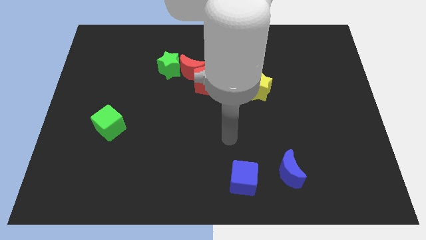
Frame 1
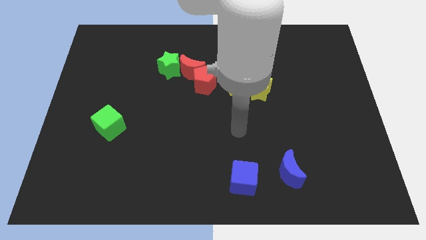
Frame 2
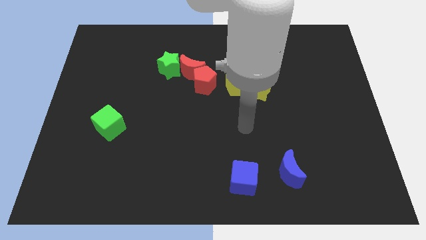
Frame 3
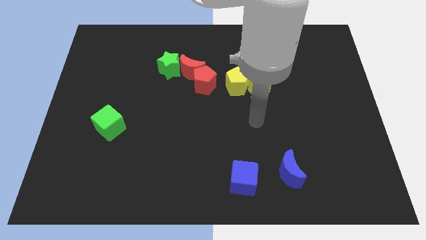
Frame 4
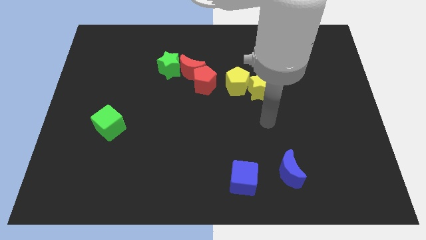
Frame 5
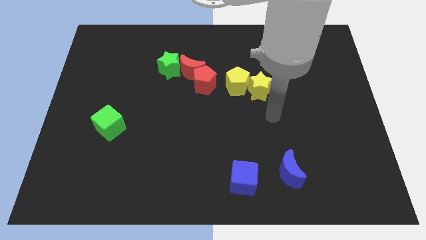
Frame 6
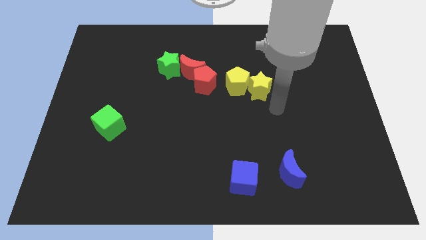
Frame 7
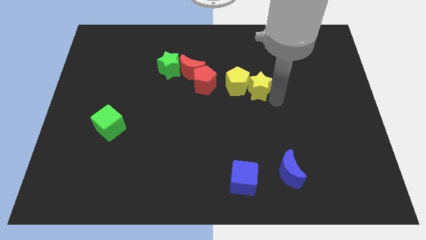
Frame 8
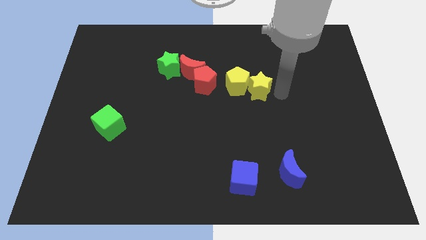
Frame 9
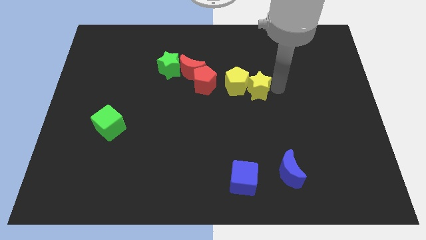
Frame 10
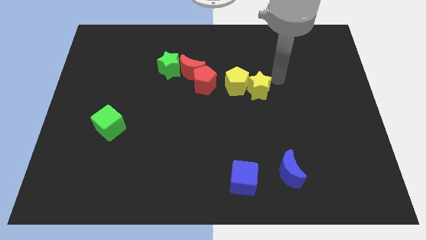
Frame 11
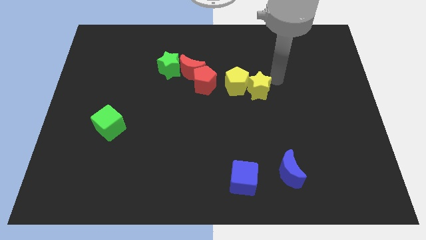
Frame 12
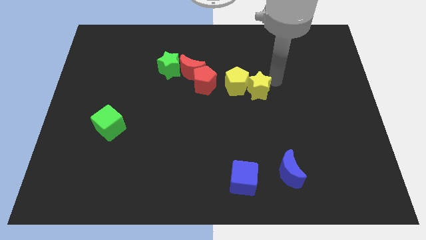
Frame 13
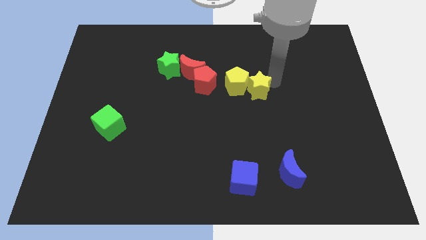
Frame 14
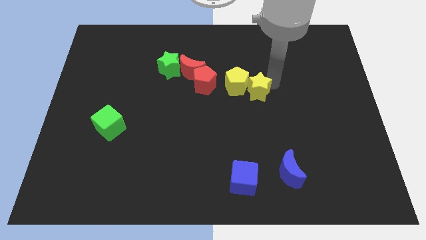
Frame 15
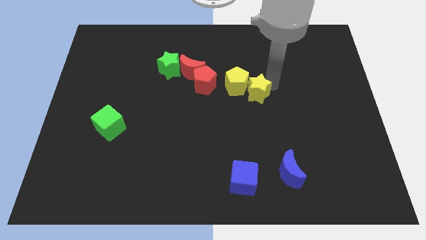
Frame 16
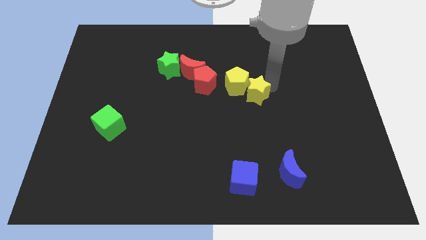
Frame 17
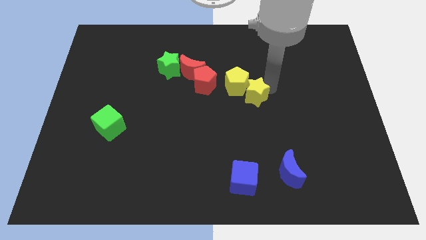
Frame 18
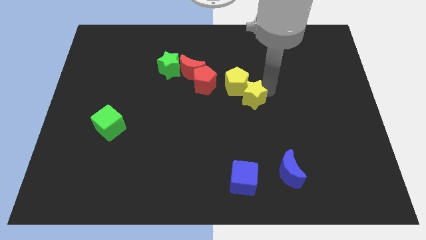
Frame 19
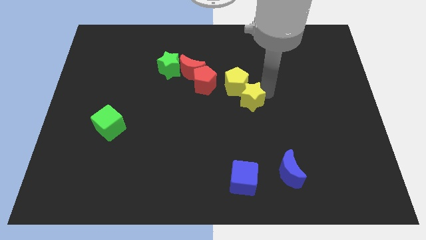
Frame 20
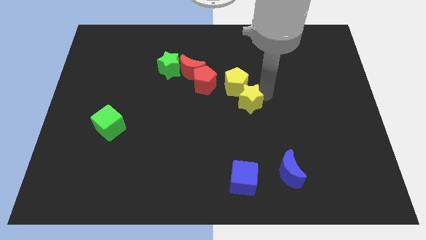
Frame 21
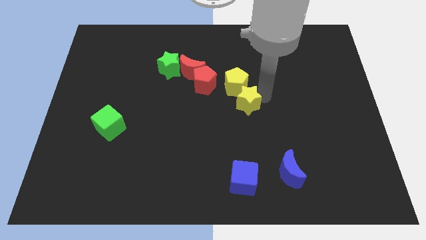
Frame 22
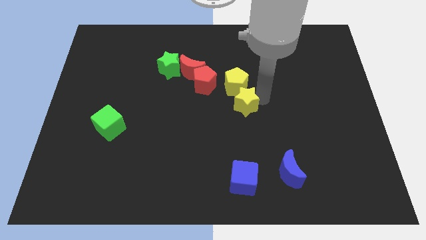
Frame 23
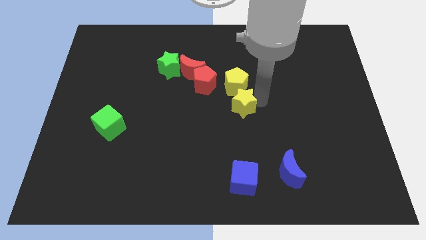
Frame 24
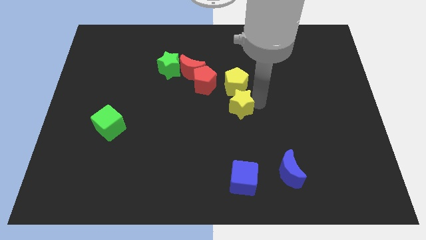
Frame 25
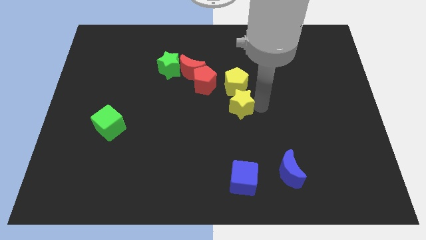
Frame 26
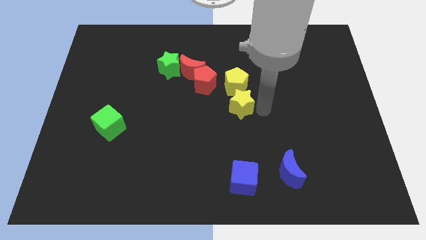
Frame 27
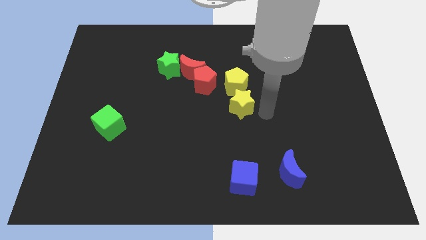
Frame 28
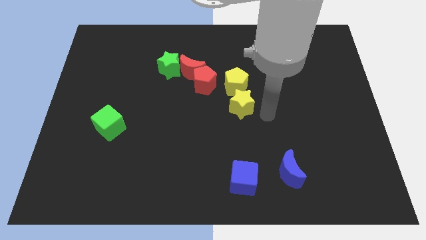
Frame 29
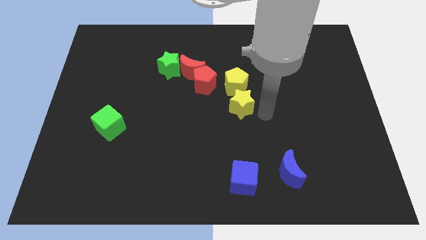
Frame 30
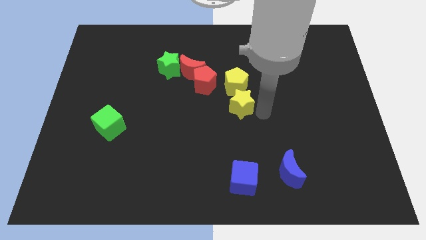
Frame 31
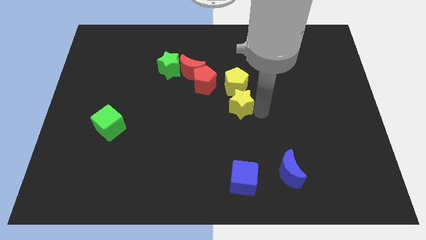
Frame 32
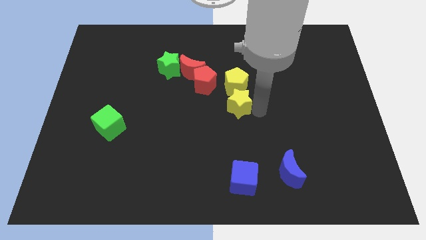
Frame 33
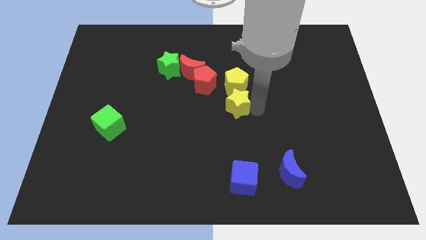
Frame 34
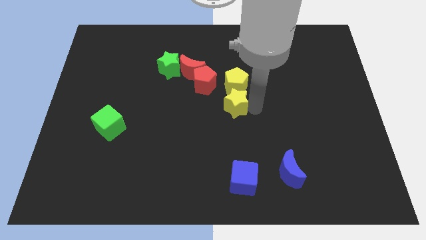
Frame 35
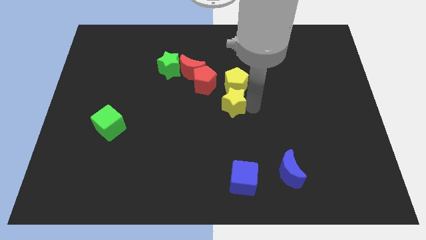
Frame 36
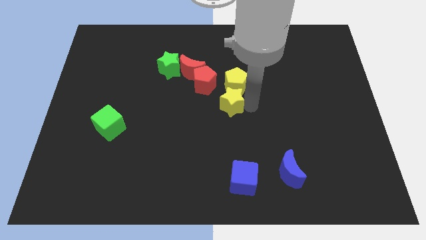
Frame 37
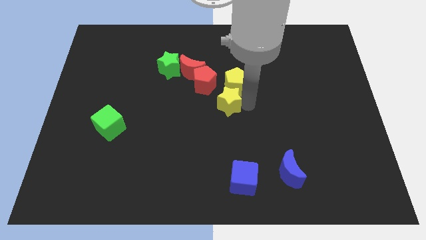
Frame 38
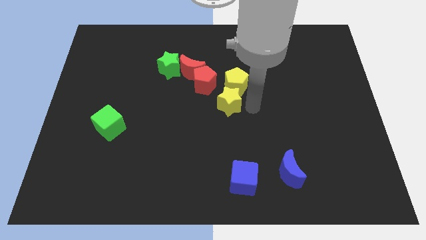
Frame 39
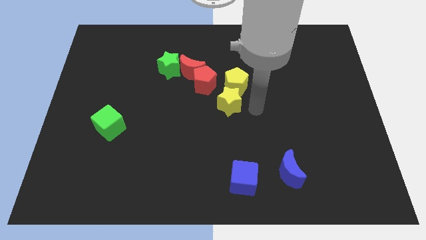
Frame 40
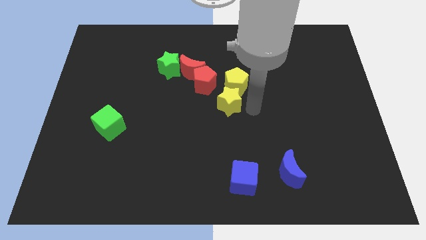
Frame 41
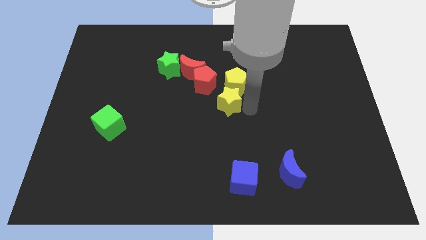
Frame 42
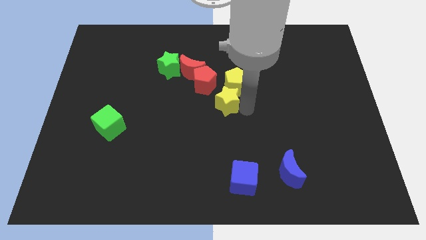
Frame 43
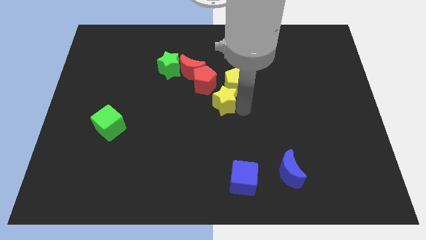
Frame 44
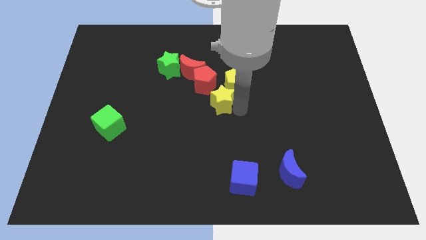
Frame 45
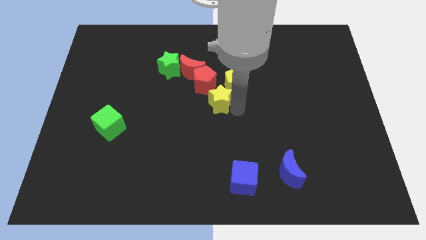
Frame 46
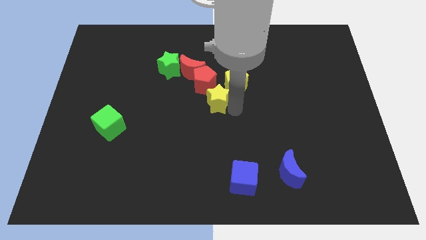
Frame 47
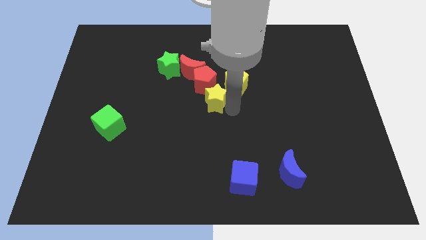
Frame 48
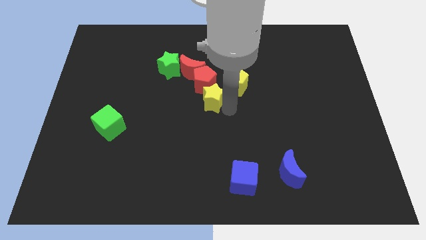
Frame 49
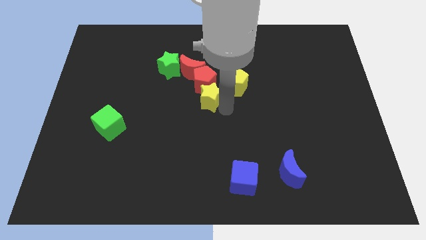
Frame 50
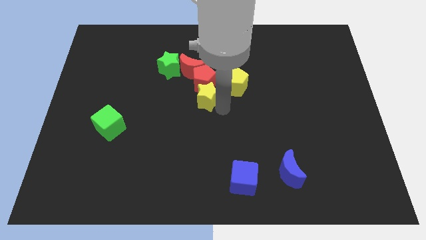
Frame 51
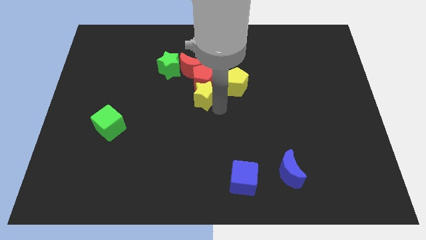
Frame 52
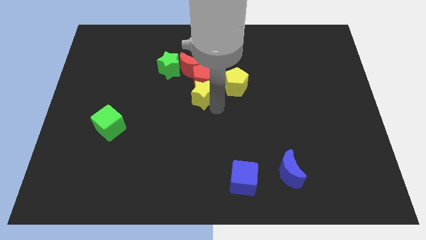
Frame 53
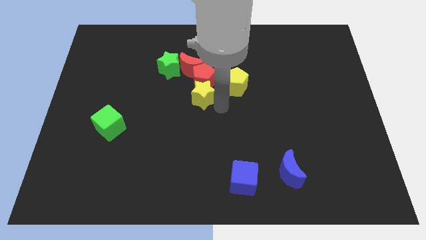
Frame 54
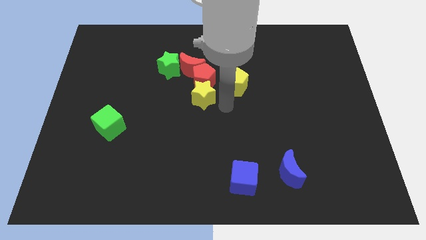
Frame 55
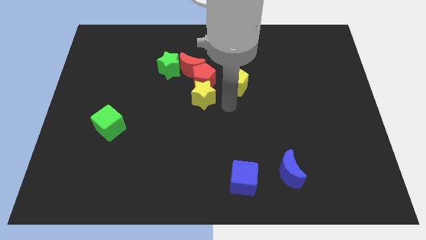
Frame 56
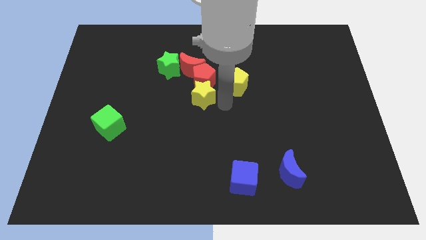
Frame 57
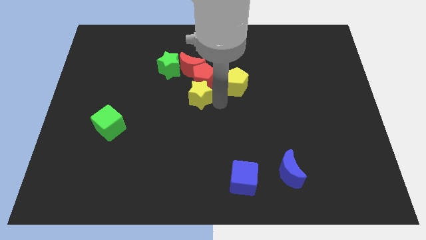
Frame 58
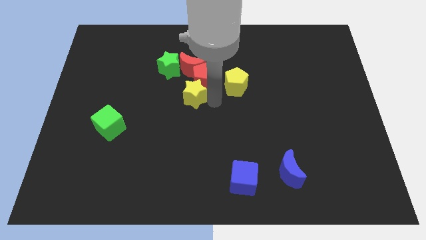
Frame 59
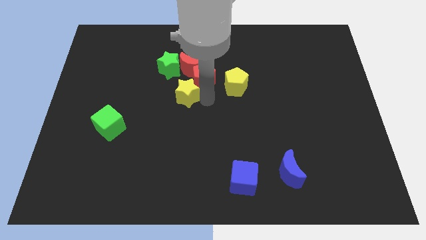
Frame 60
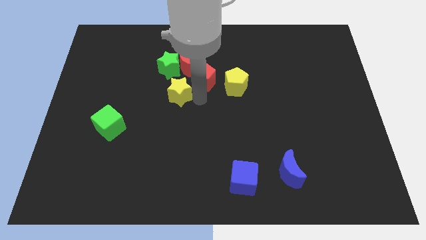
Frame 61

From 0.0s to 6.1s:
move the yellow star diagonally down and to the left of the red moon

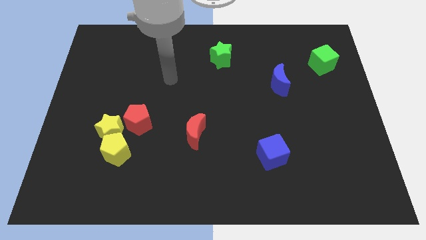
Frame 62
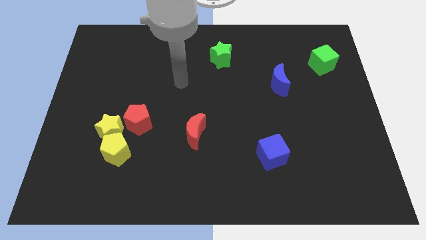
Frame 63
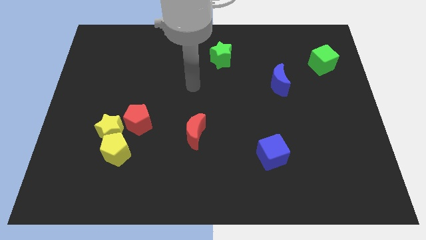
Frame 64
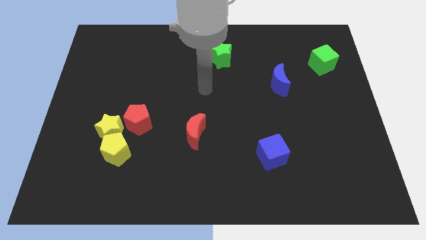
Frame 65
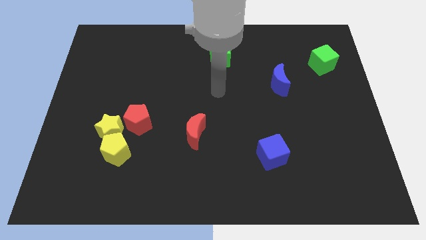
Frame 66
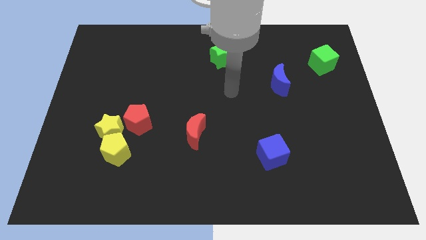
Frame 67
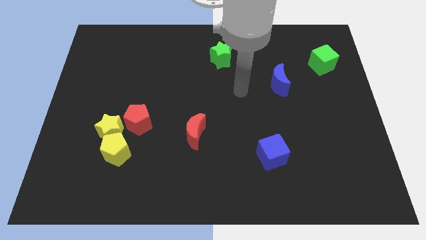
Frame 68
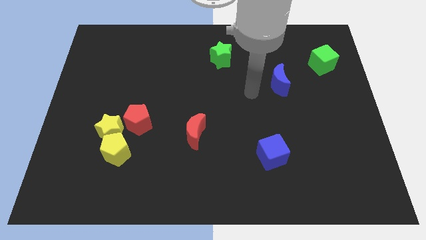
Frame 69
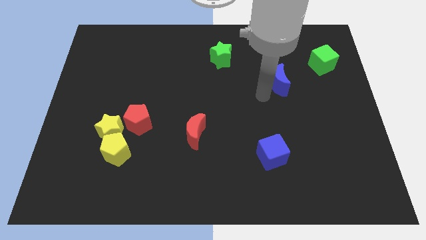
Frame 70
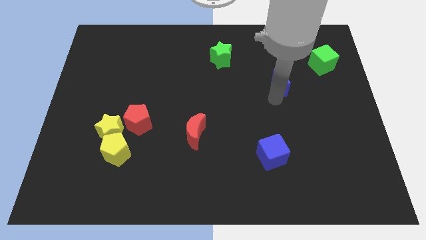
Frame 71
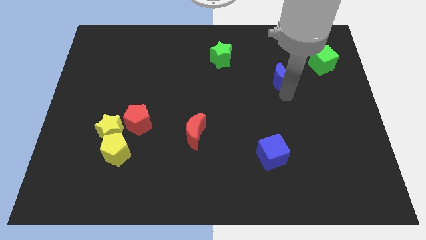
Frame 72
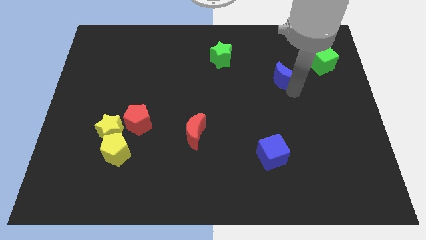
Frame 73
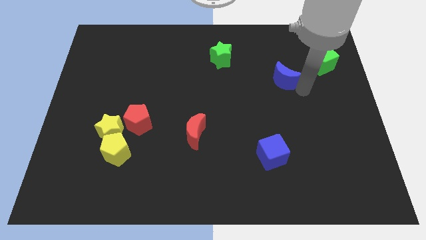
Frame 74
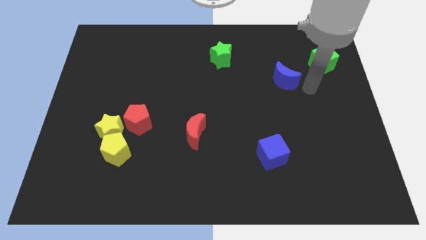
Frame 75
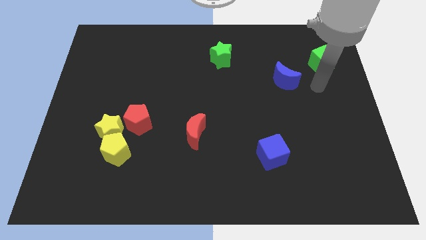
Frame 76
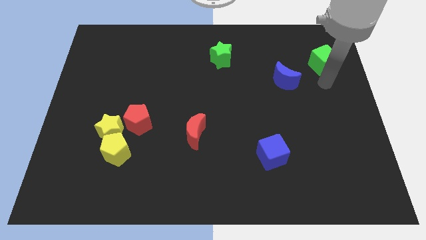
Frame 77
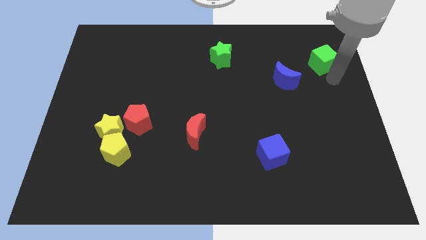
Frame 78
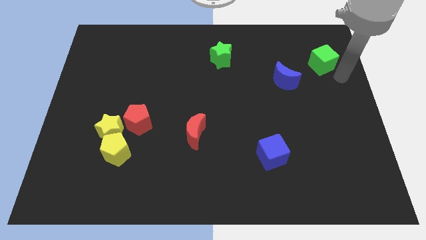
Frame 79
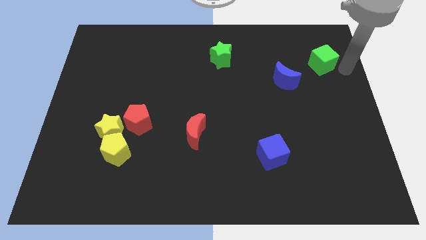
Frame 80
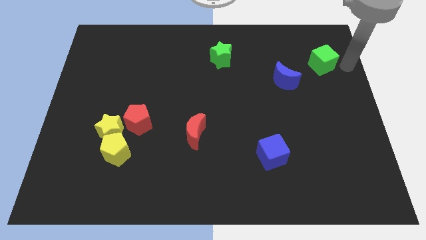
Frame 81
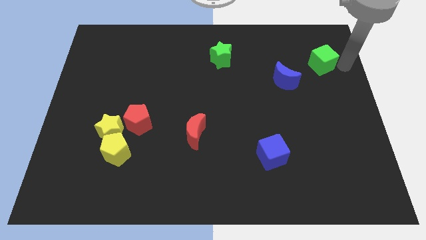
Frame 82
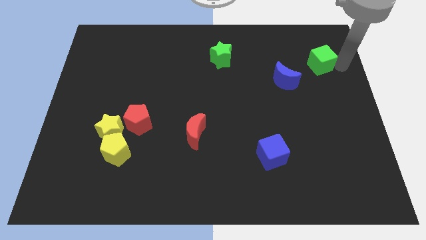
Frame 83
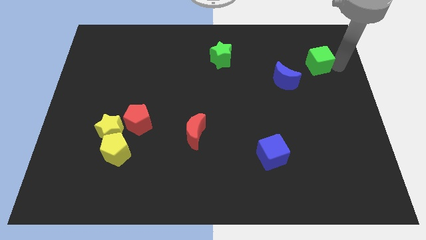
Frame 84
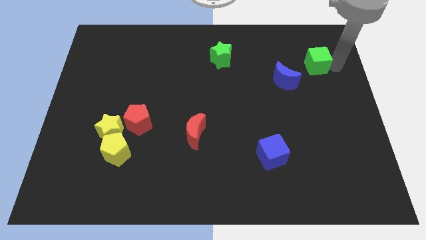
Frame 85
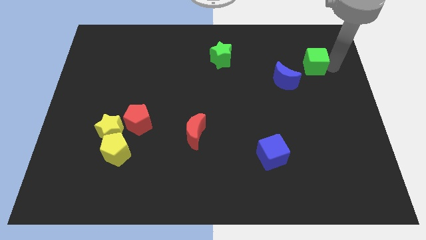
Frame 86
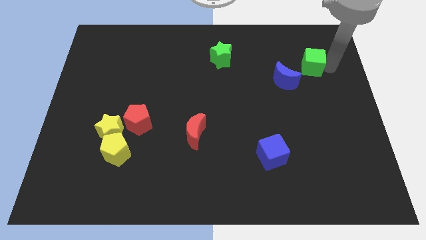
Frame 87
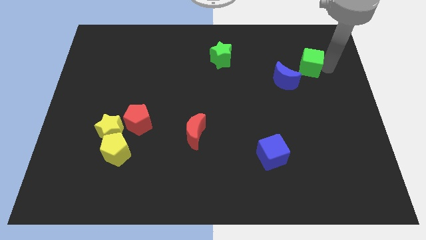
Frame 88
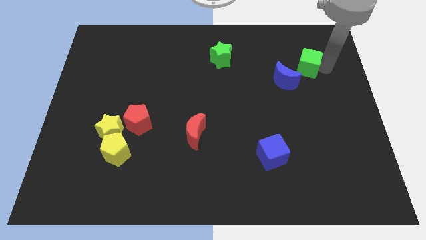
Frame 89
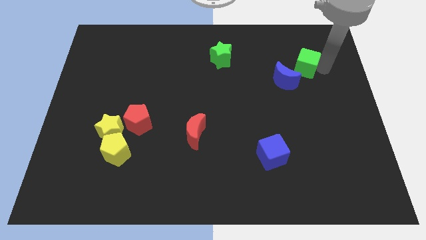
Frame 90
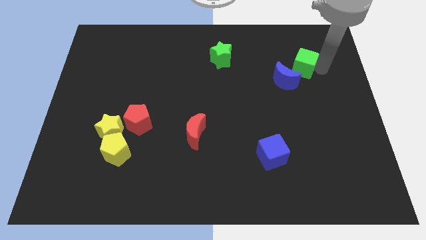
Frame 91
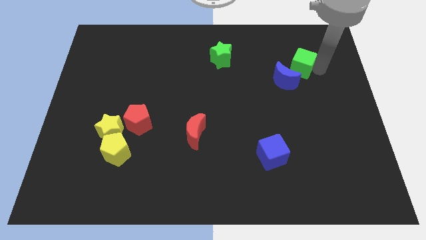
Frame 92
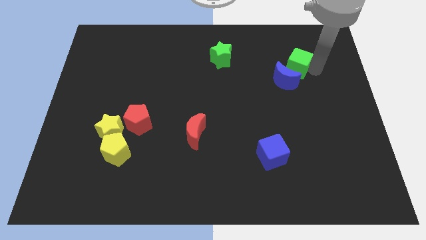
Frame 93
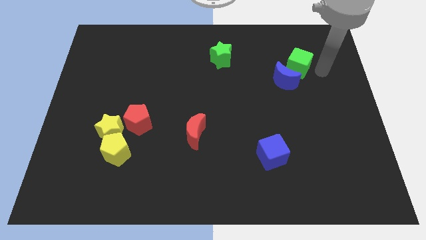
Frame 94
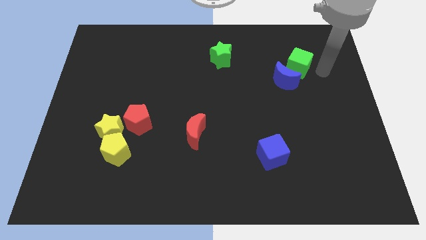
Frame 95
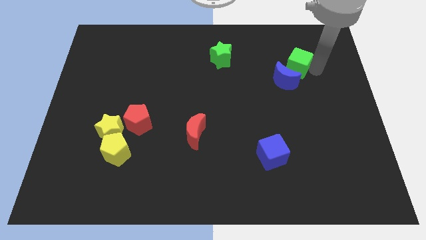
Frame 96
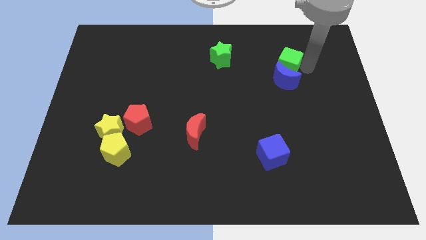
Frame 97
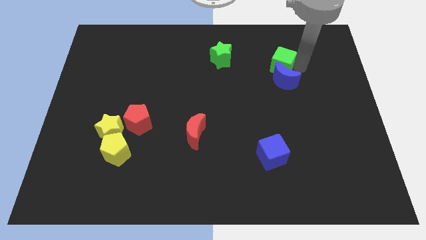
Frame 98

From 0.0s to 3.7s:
put the green cube just right of the green star
